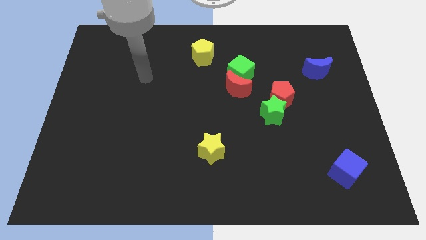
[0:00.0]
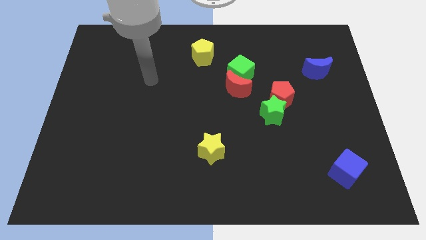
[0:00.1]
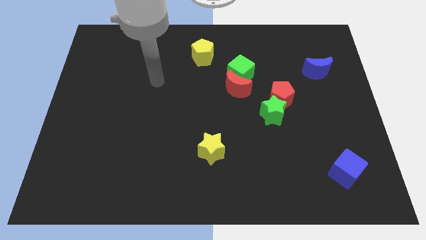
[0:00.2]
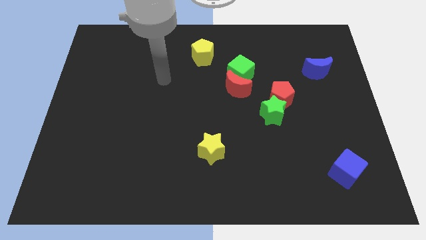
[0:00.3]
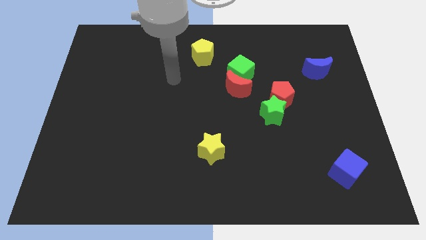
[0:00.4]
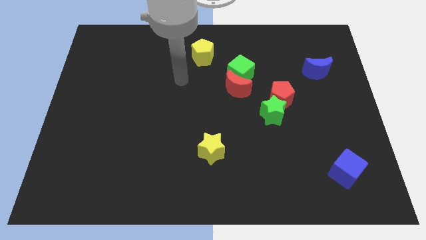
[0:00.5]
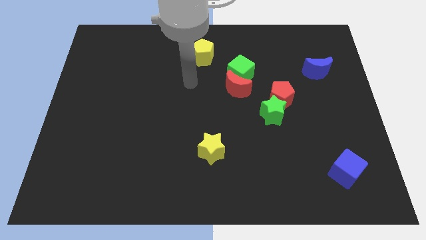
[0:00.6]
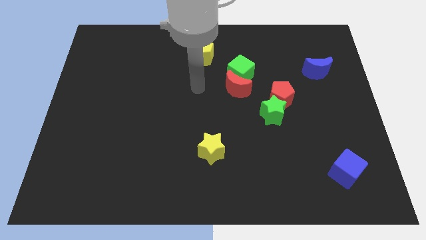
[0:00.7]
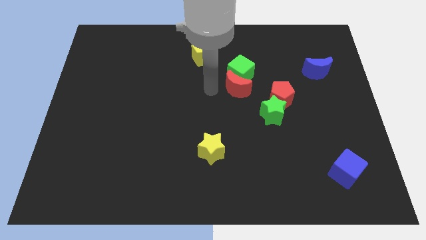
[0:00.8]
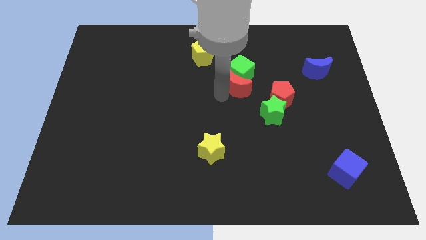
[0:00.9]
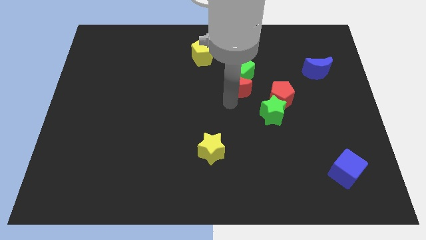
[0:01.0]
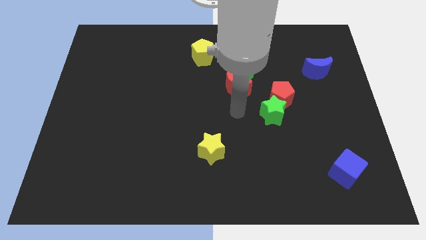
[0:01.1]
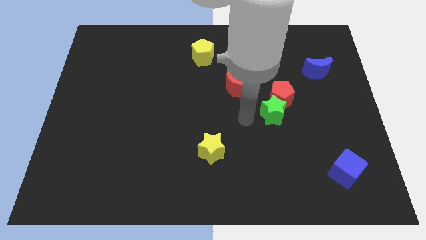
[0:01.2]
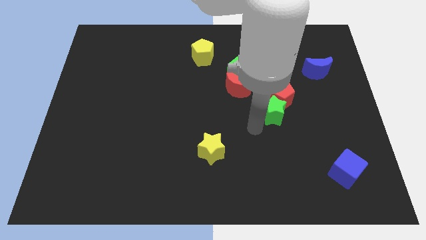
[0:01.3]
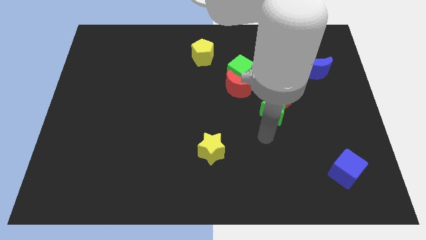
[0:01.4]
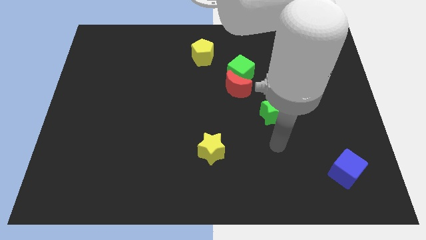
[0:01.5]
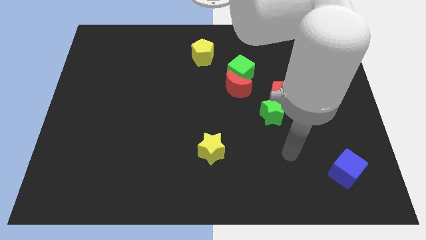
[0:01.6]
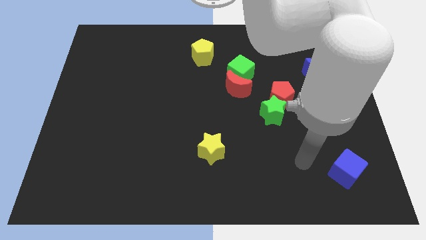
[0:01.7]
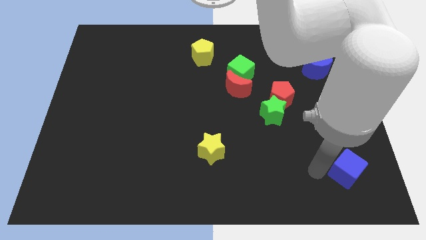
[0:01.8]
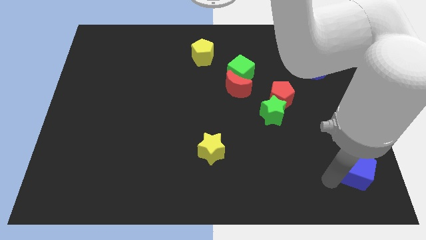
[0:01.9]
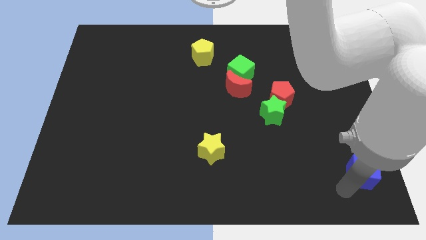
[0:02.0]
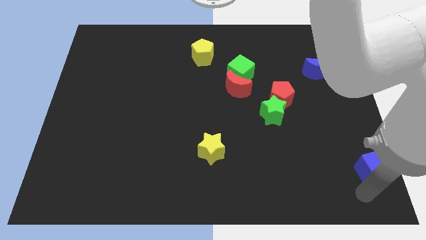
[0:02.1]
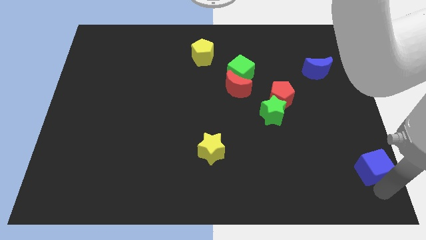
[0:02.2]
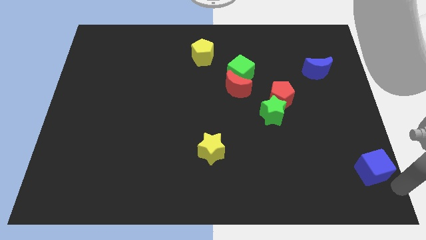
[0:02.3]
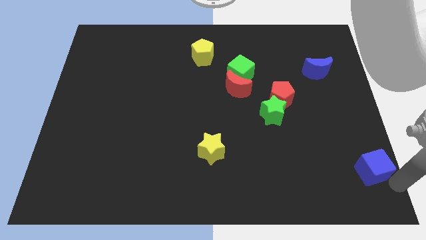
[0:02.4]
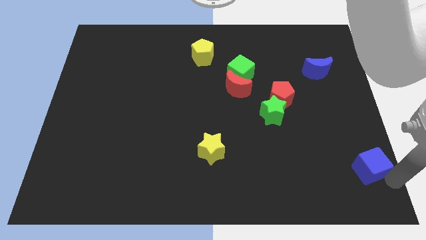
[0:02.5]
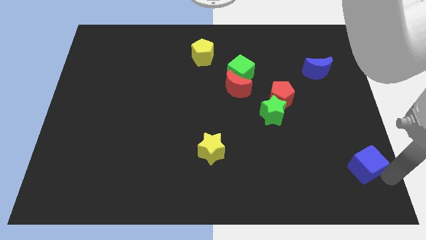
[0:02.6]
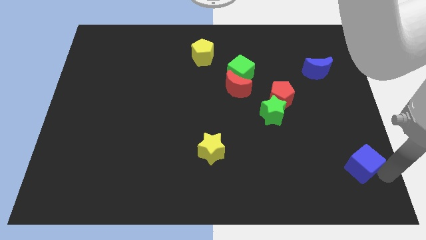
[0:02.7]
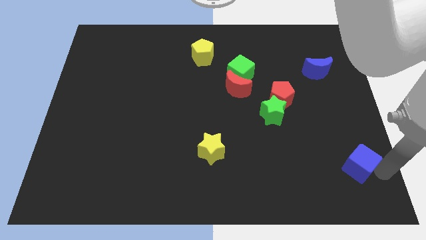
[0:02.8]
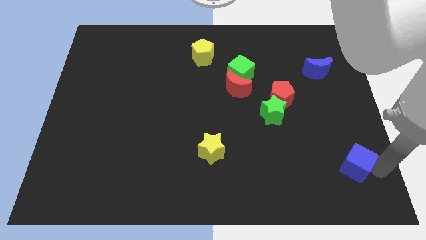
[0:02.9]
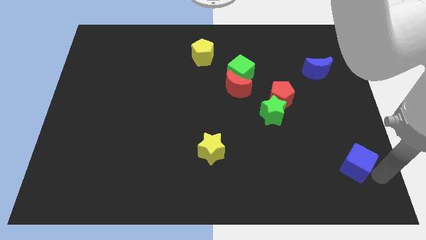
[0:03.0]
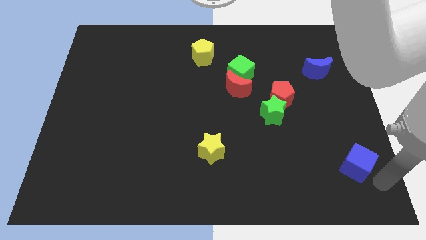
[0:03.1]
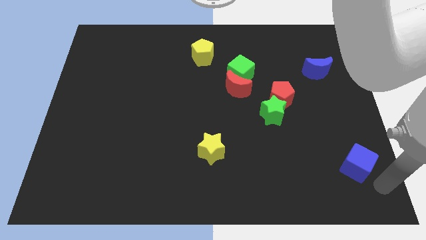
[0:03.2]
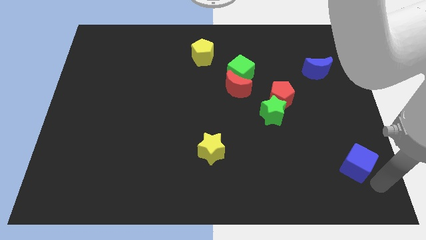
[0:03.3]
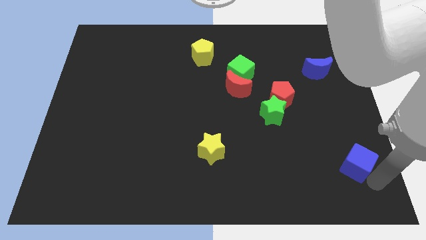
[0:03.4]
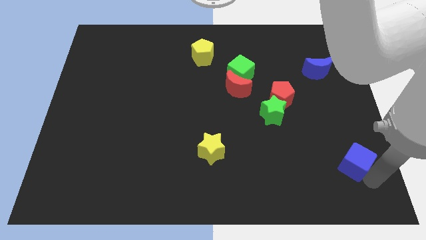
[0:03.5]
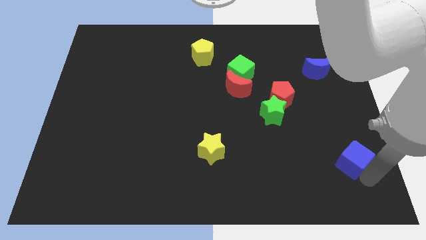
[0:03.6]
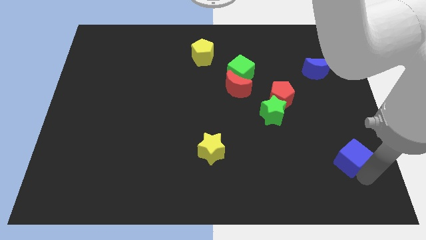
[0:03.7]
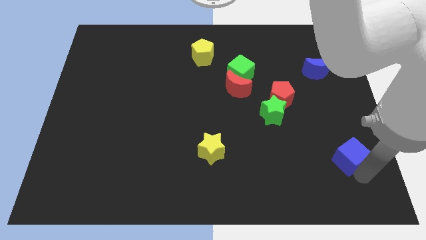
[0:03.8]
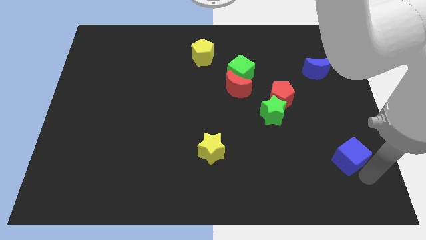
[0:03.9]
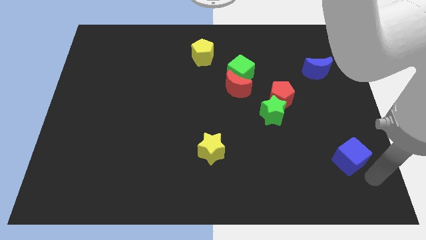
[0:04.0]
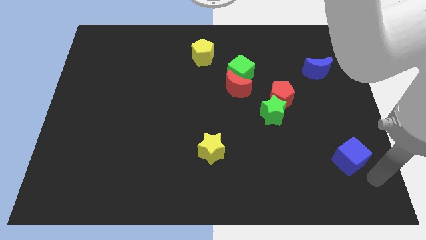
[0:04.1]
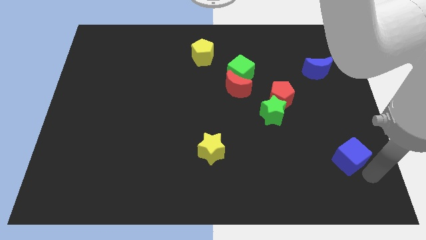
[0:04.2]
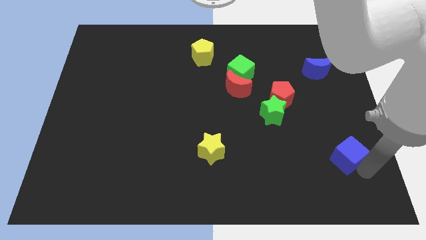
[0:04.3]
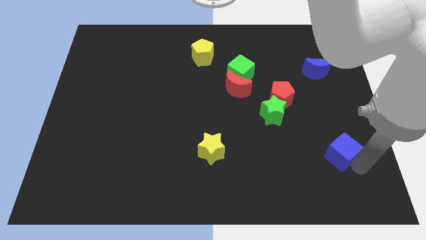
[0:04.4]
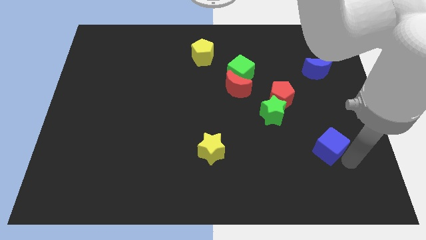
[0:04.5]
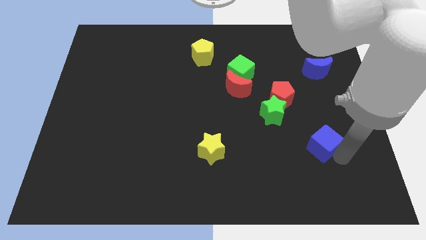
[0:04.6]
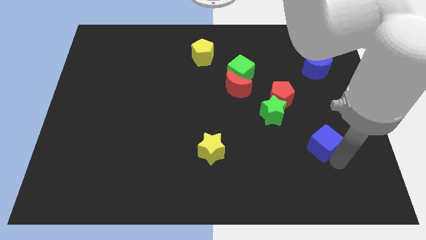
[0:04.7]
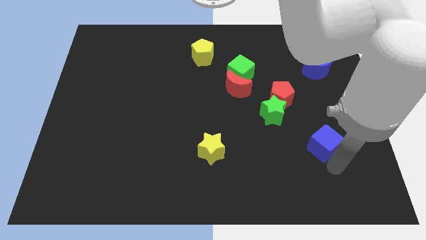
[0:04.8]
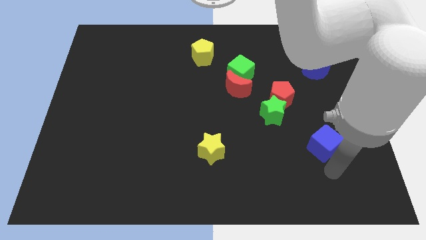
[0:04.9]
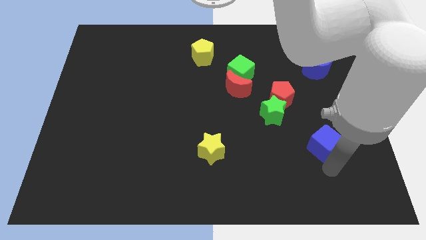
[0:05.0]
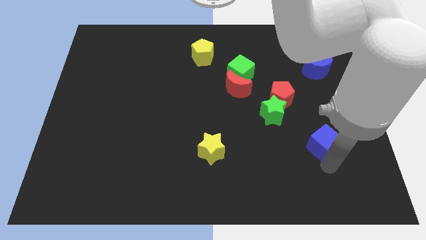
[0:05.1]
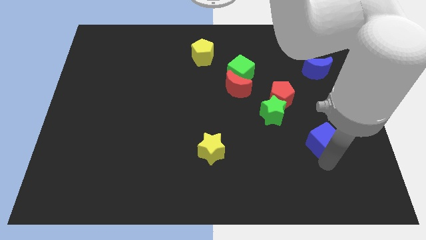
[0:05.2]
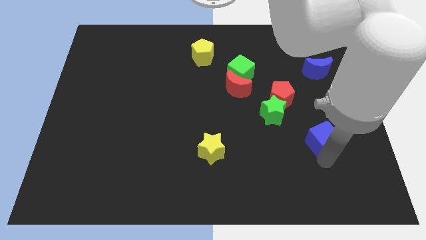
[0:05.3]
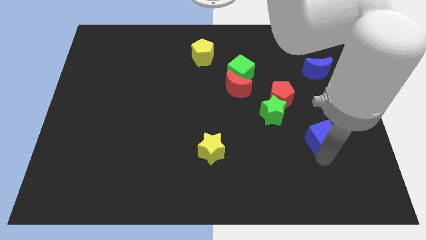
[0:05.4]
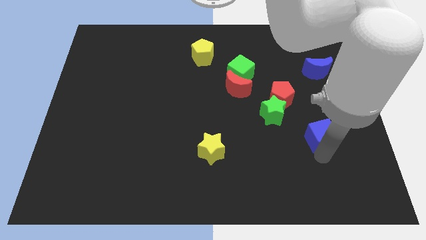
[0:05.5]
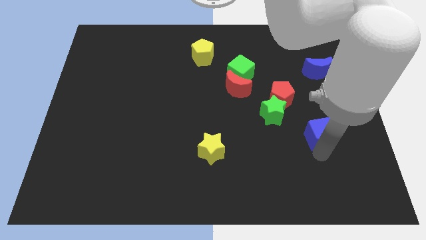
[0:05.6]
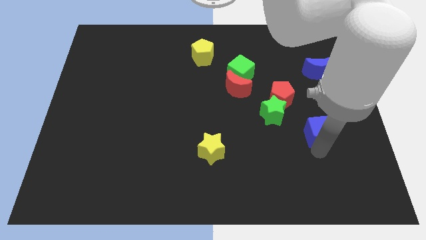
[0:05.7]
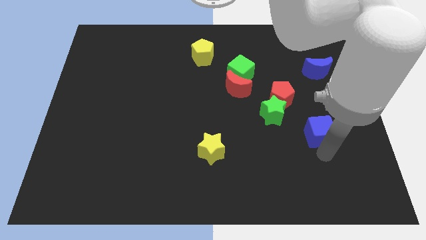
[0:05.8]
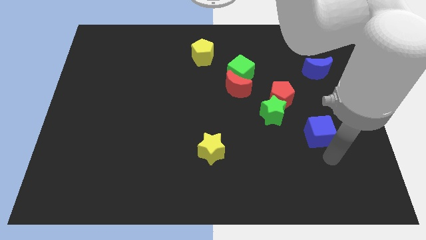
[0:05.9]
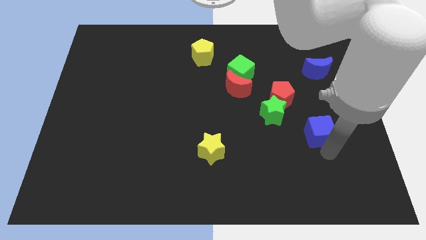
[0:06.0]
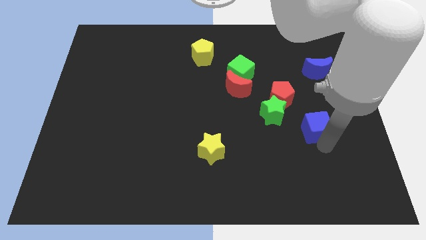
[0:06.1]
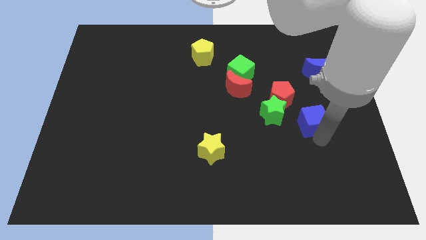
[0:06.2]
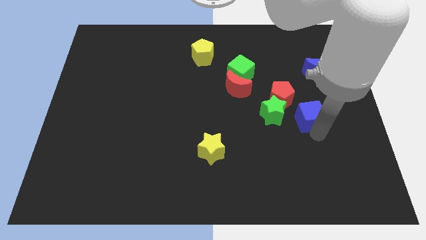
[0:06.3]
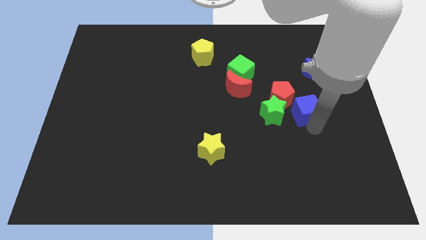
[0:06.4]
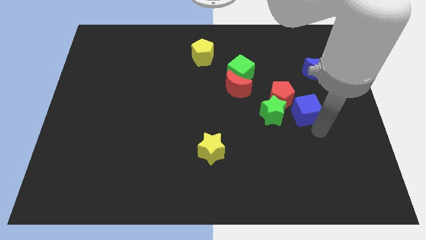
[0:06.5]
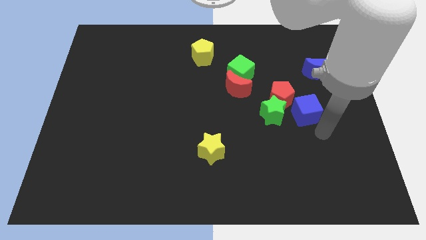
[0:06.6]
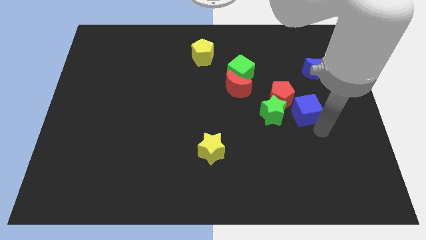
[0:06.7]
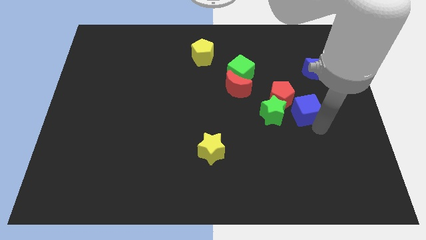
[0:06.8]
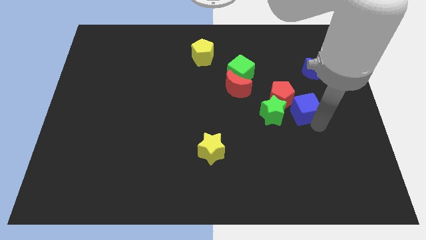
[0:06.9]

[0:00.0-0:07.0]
push the blue cube diagonally up and to the right of the green star
